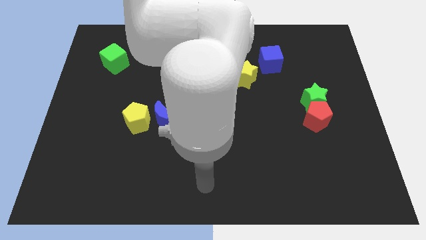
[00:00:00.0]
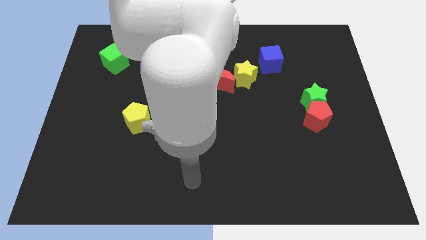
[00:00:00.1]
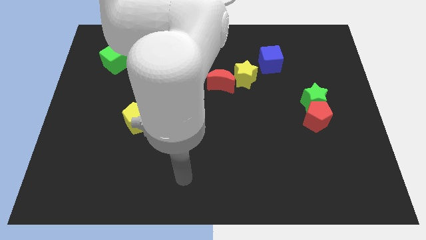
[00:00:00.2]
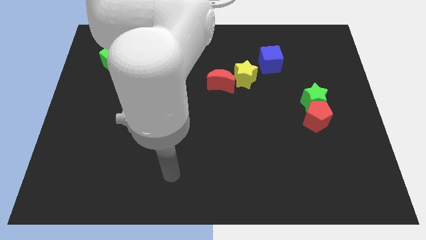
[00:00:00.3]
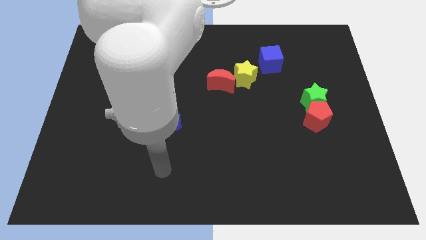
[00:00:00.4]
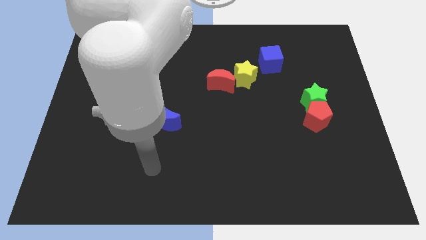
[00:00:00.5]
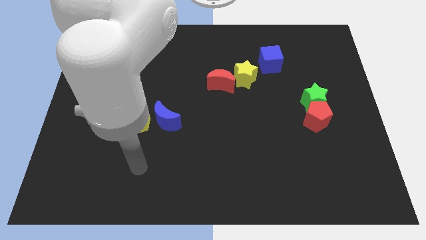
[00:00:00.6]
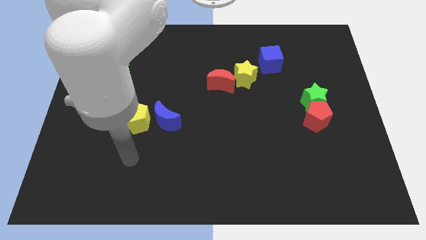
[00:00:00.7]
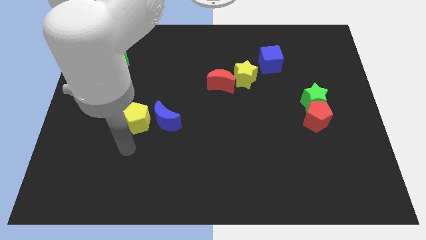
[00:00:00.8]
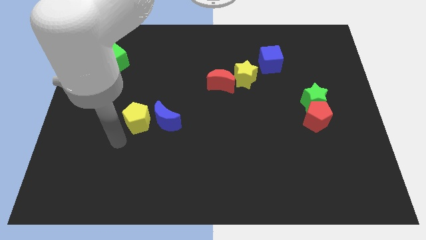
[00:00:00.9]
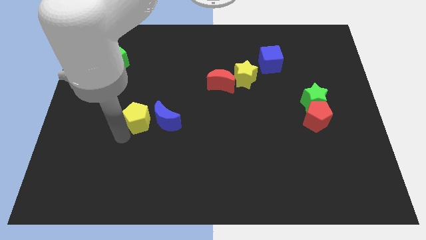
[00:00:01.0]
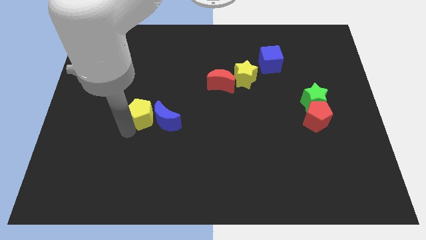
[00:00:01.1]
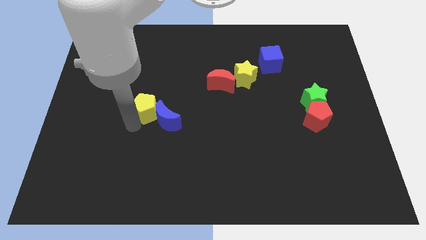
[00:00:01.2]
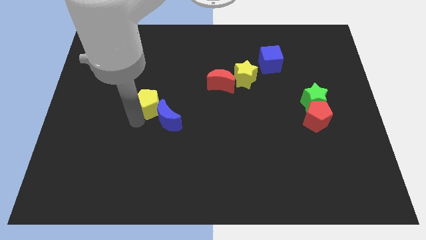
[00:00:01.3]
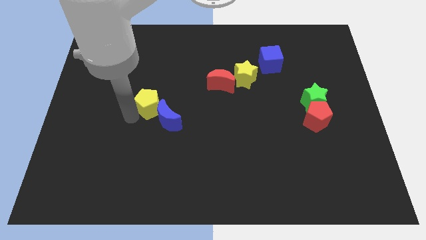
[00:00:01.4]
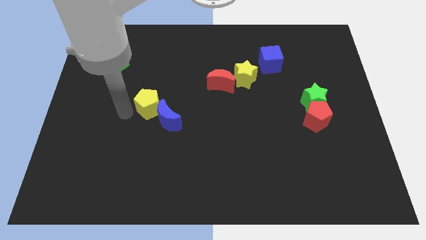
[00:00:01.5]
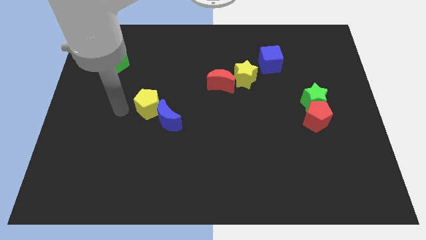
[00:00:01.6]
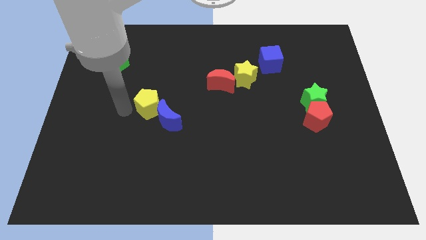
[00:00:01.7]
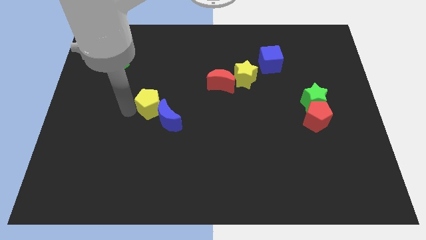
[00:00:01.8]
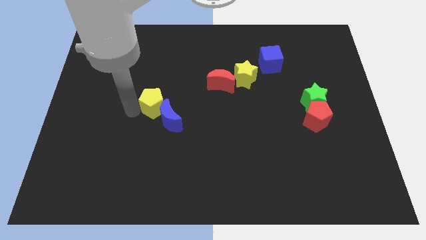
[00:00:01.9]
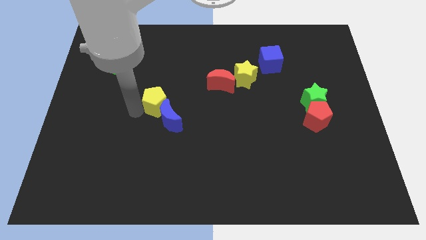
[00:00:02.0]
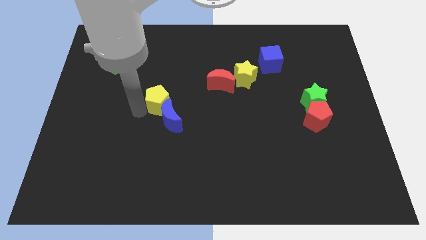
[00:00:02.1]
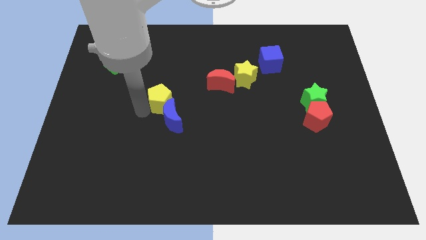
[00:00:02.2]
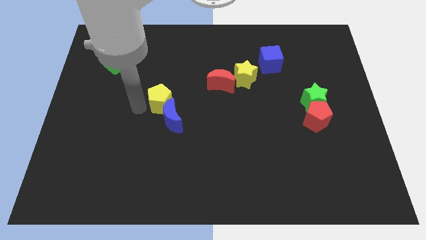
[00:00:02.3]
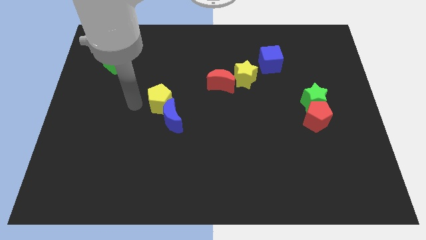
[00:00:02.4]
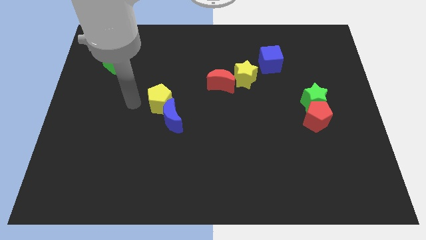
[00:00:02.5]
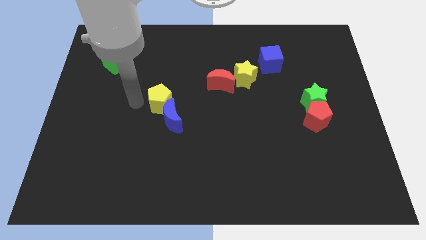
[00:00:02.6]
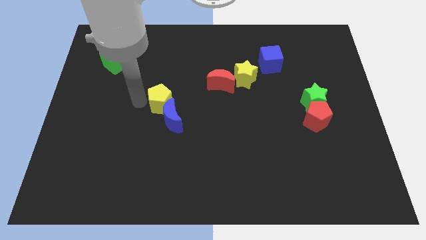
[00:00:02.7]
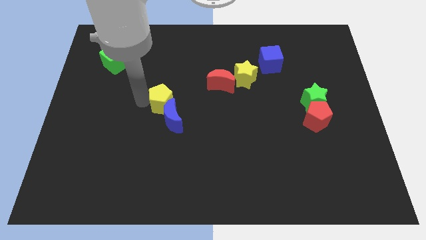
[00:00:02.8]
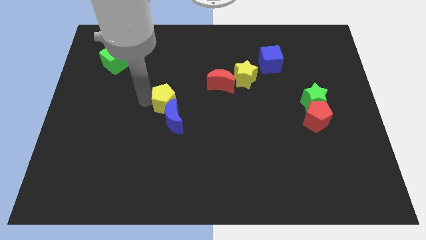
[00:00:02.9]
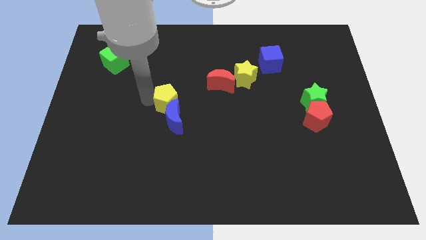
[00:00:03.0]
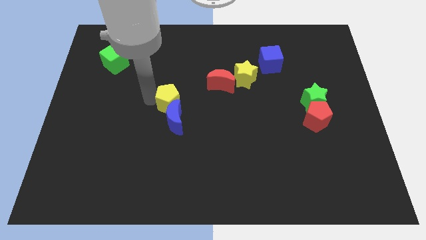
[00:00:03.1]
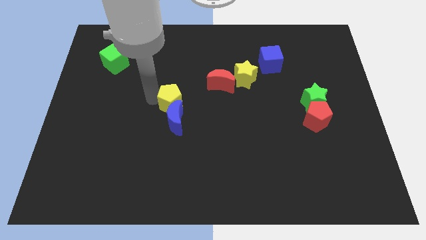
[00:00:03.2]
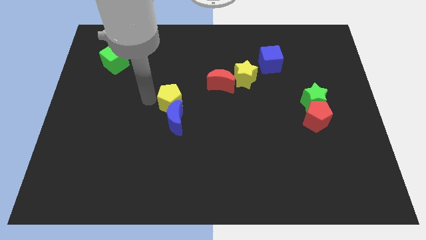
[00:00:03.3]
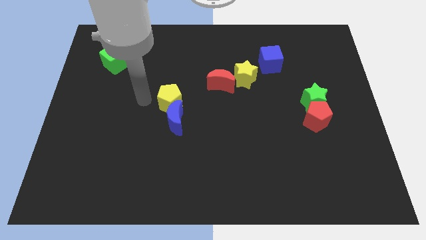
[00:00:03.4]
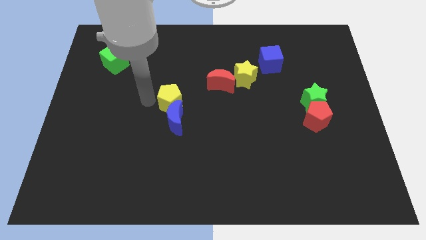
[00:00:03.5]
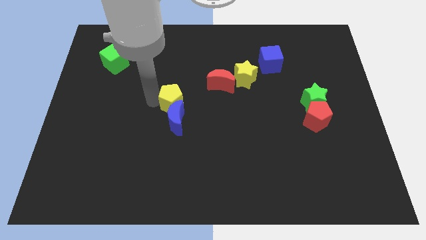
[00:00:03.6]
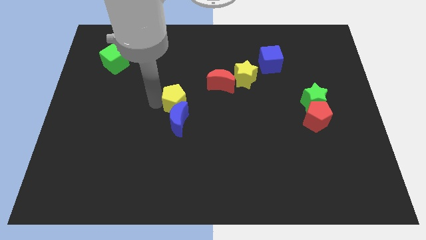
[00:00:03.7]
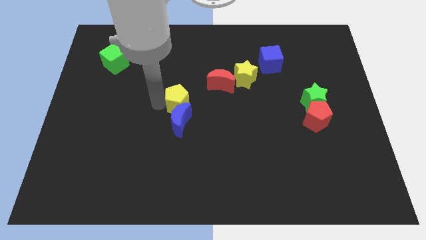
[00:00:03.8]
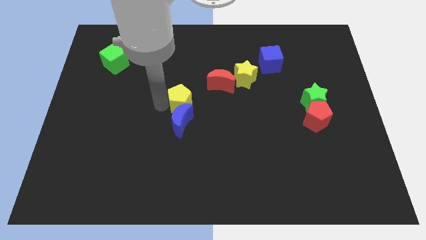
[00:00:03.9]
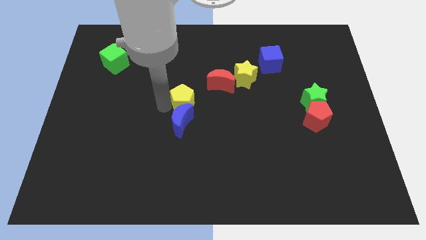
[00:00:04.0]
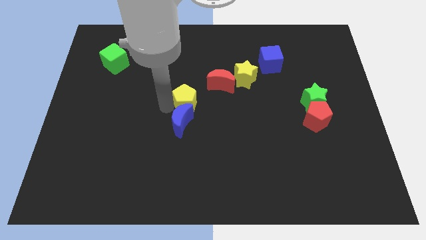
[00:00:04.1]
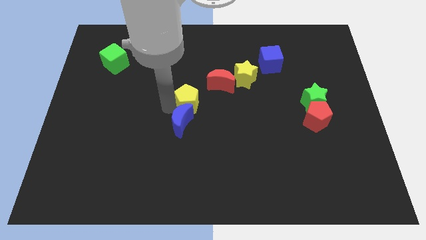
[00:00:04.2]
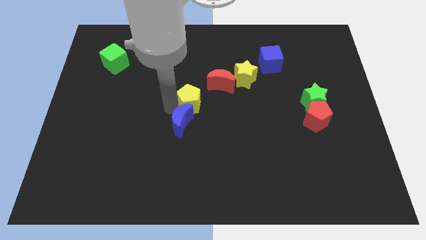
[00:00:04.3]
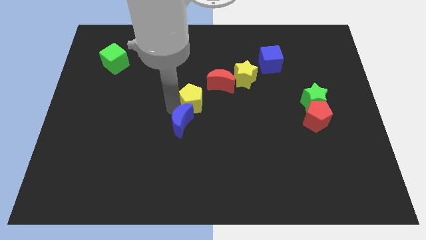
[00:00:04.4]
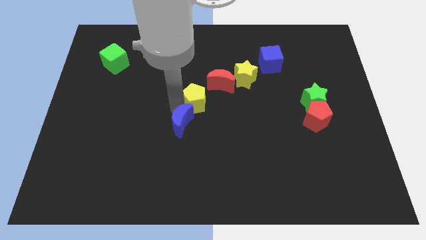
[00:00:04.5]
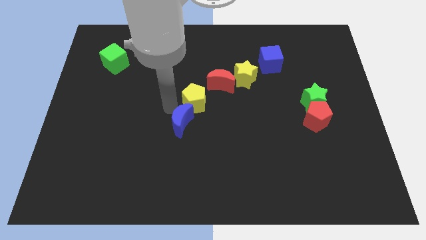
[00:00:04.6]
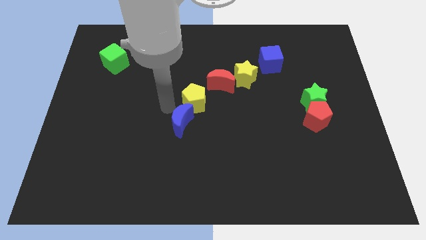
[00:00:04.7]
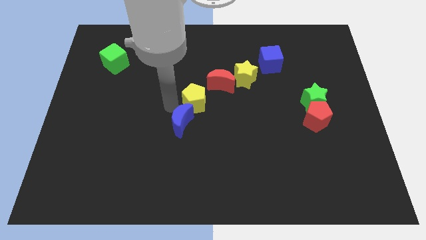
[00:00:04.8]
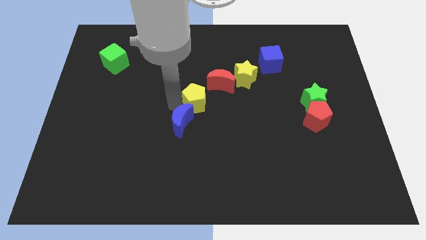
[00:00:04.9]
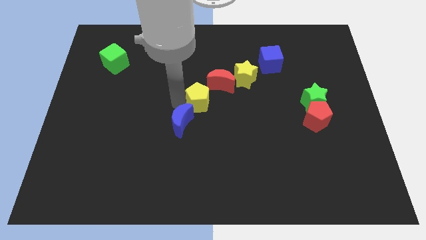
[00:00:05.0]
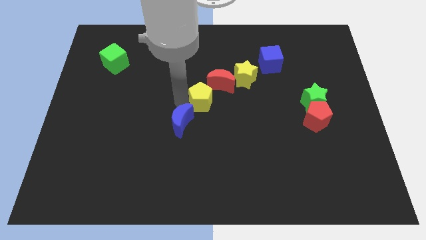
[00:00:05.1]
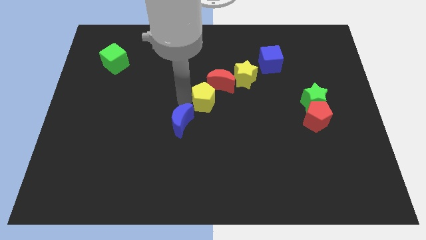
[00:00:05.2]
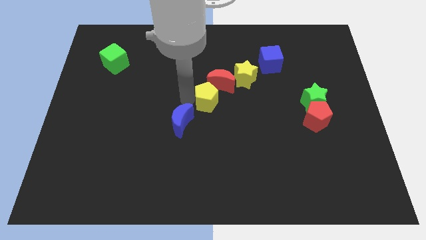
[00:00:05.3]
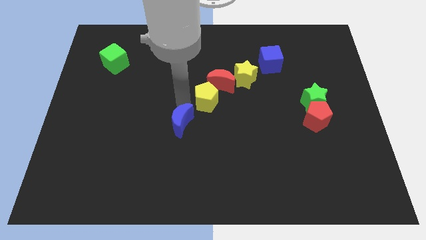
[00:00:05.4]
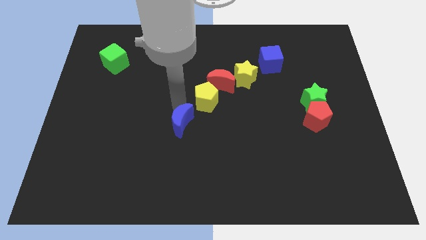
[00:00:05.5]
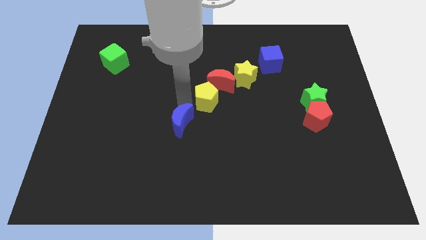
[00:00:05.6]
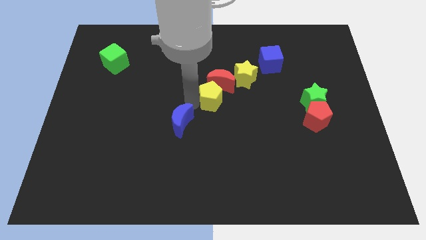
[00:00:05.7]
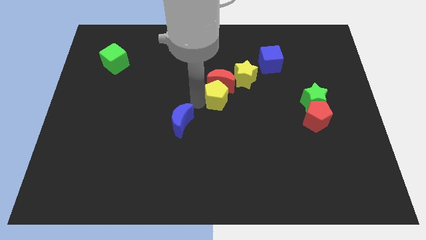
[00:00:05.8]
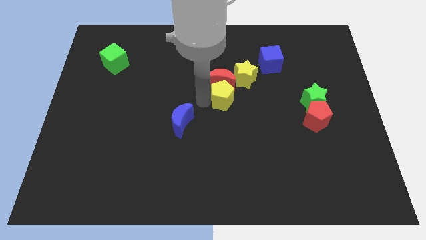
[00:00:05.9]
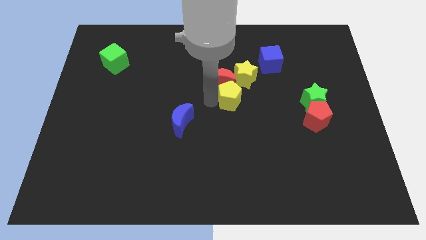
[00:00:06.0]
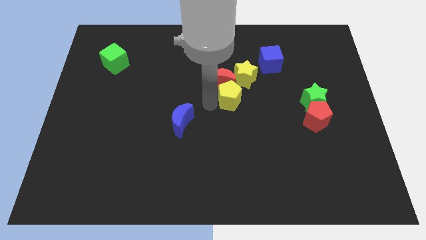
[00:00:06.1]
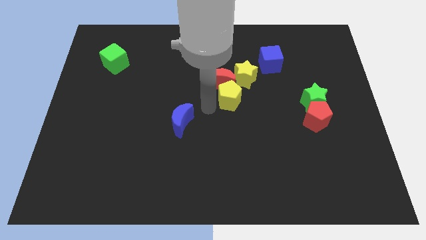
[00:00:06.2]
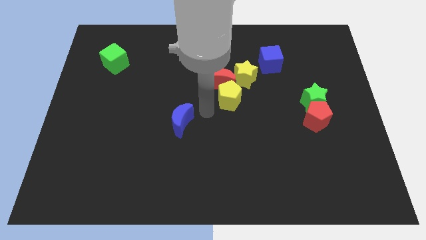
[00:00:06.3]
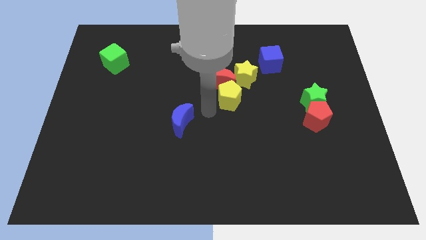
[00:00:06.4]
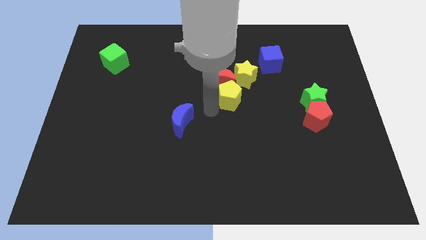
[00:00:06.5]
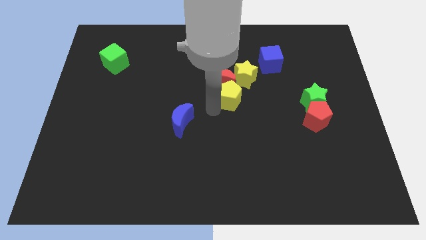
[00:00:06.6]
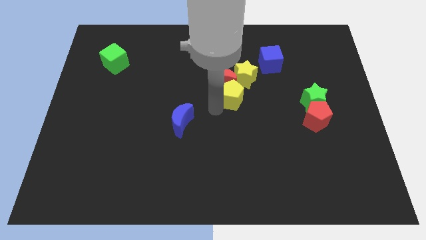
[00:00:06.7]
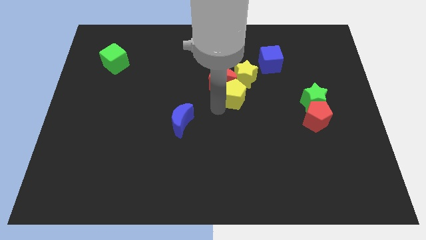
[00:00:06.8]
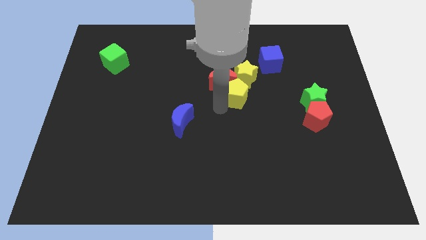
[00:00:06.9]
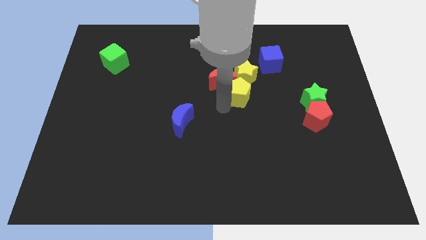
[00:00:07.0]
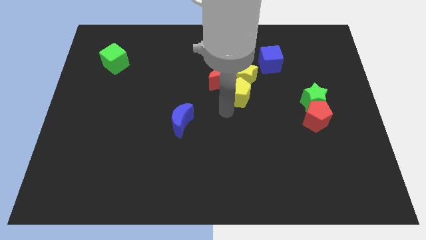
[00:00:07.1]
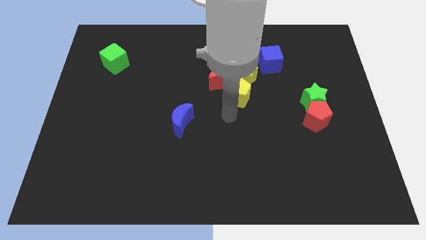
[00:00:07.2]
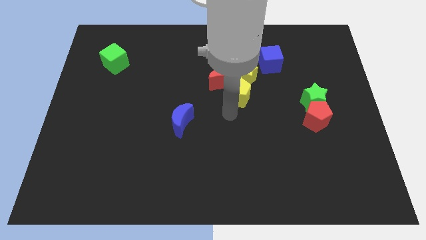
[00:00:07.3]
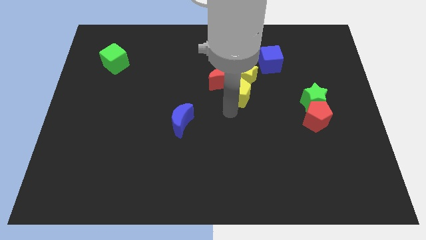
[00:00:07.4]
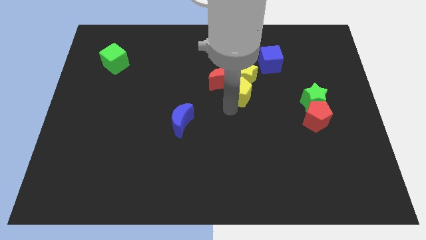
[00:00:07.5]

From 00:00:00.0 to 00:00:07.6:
push the yellow pentagon next to the yellow star
